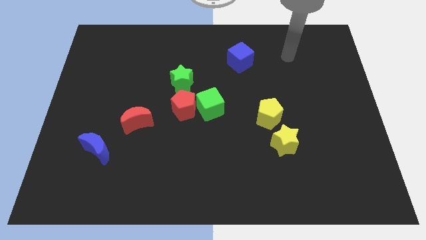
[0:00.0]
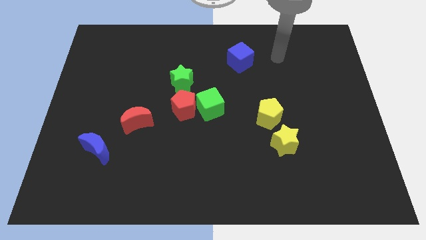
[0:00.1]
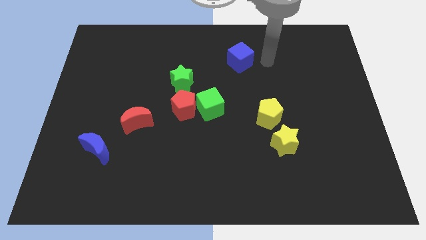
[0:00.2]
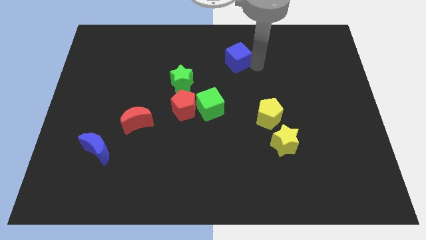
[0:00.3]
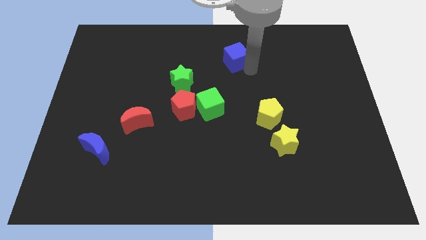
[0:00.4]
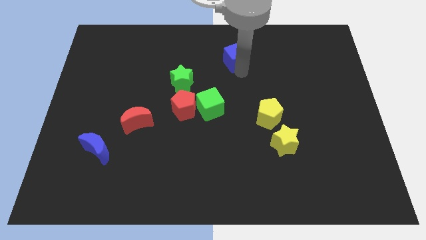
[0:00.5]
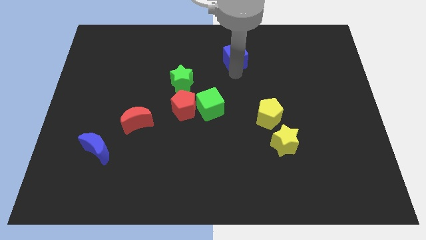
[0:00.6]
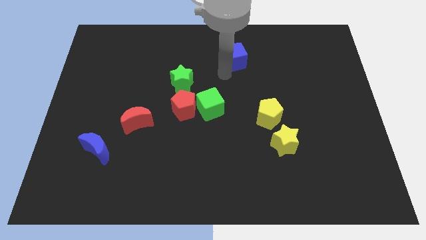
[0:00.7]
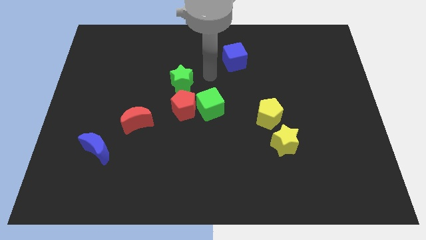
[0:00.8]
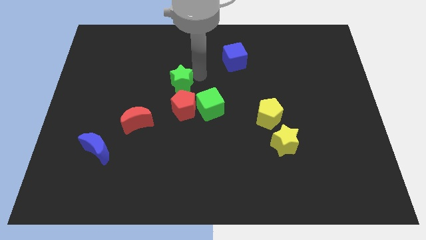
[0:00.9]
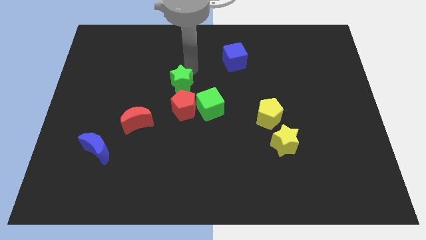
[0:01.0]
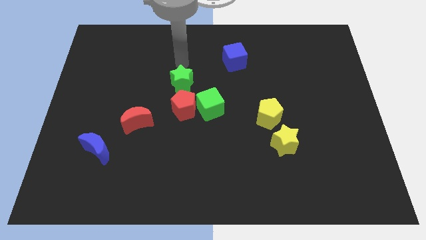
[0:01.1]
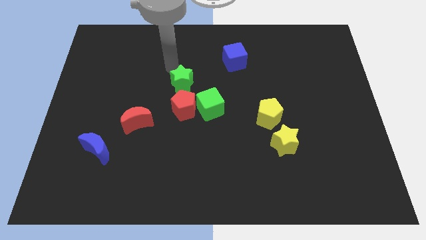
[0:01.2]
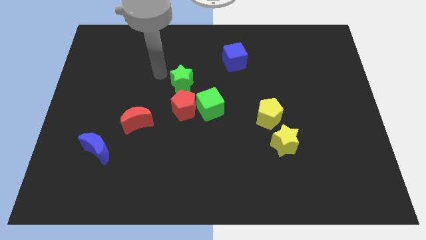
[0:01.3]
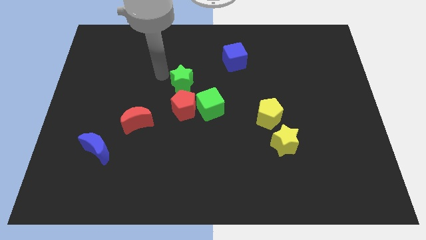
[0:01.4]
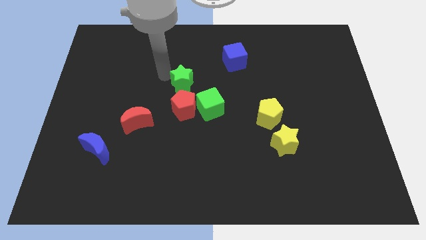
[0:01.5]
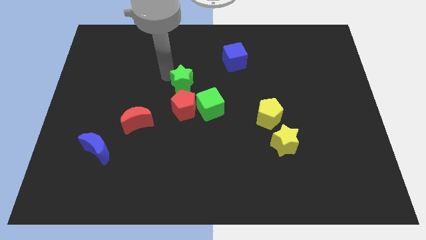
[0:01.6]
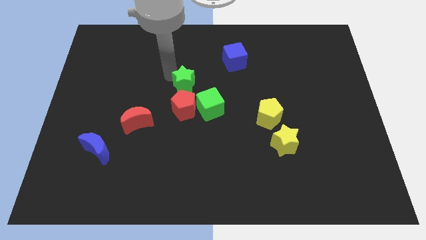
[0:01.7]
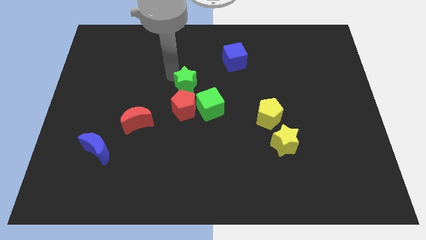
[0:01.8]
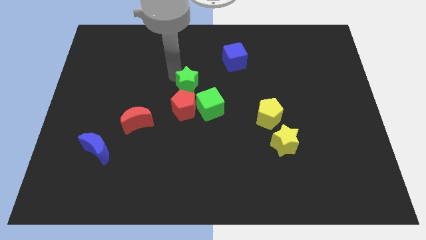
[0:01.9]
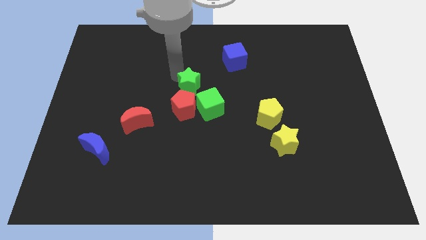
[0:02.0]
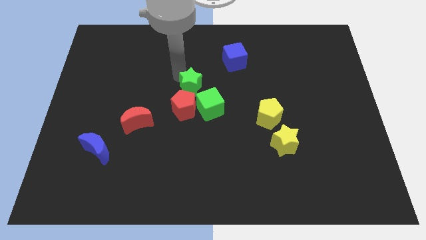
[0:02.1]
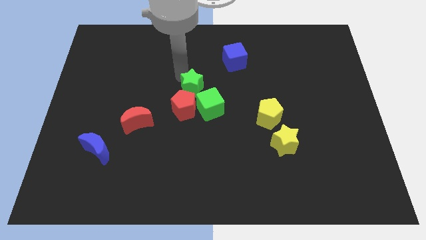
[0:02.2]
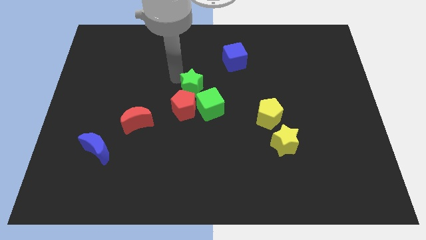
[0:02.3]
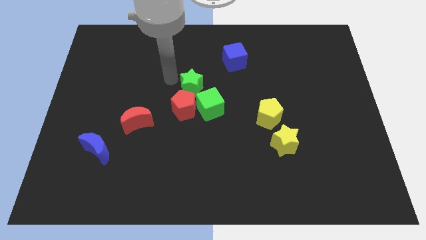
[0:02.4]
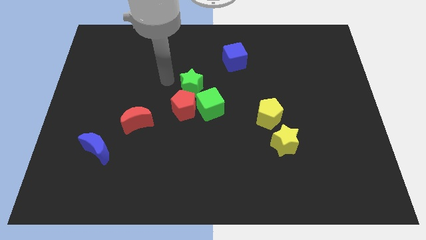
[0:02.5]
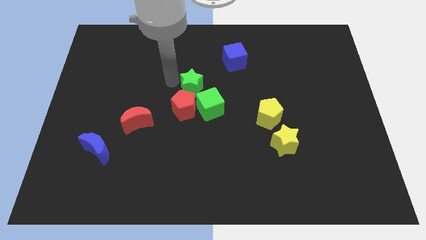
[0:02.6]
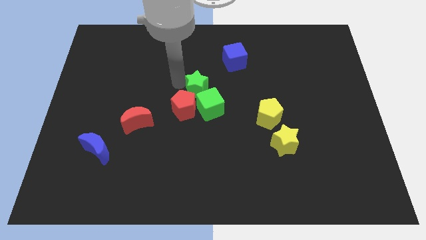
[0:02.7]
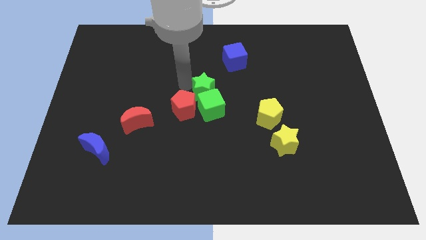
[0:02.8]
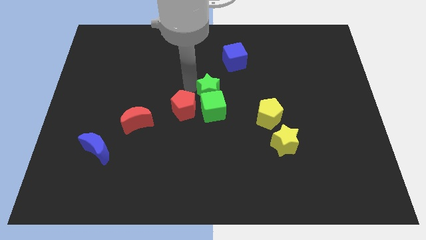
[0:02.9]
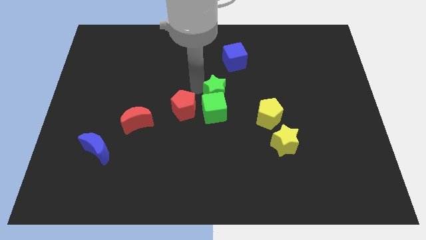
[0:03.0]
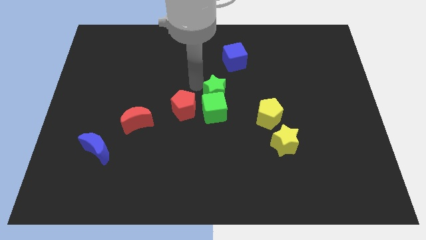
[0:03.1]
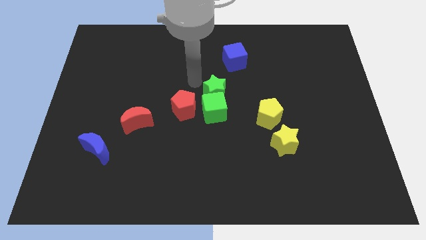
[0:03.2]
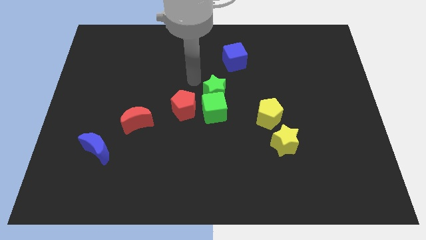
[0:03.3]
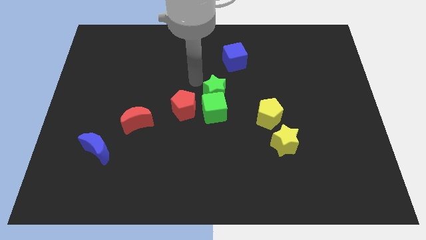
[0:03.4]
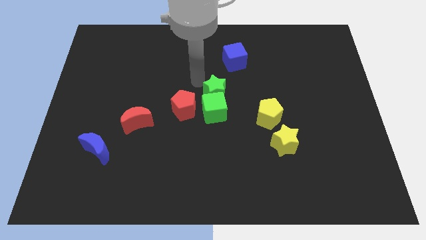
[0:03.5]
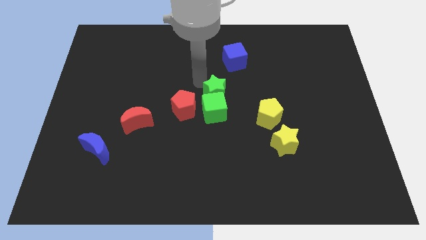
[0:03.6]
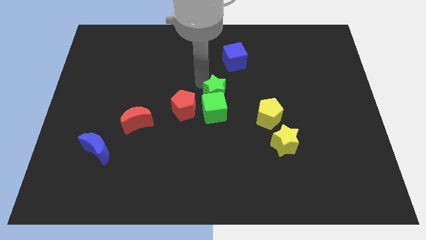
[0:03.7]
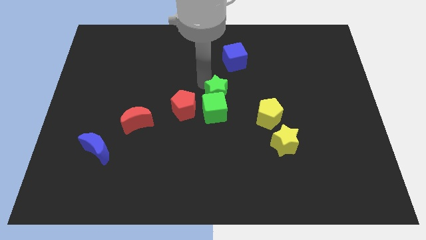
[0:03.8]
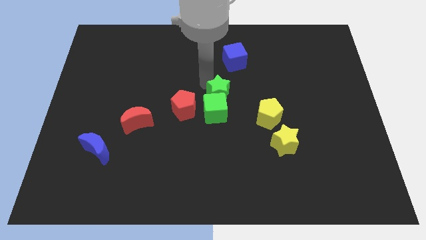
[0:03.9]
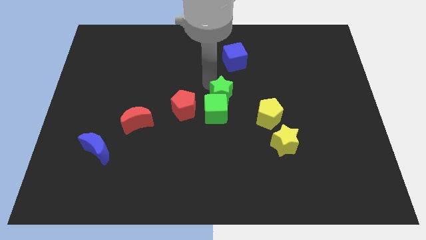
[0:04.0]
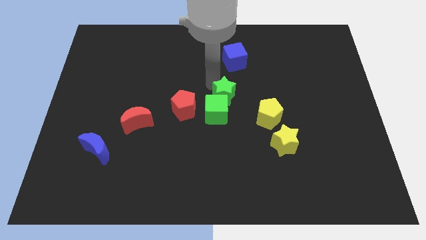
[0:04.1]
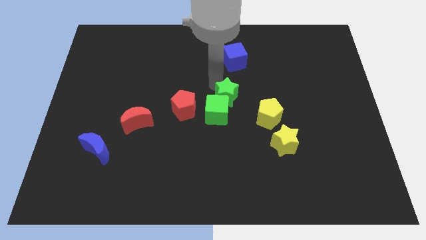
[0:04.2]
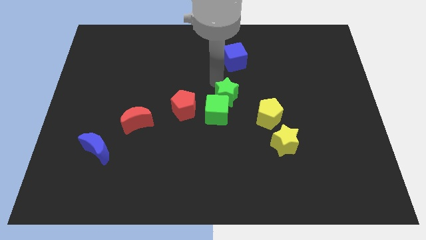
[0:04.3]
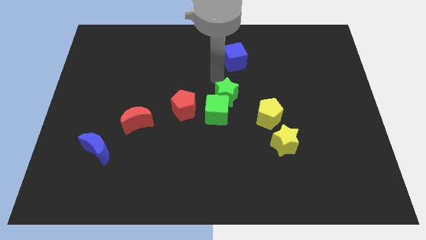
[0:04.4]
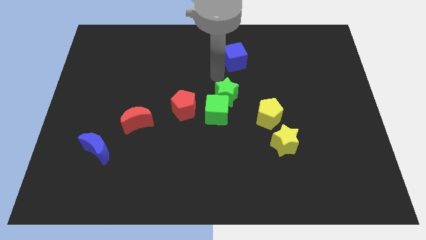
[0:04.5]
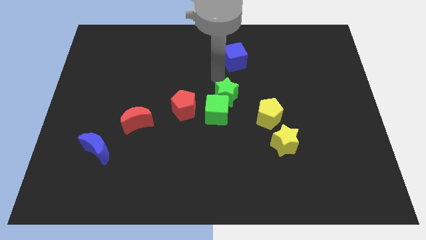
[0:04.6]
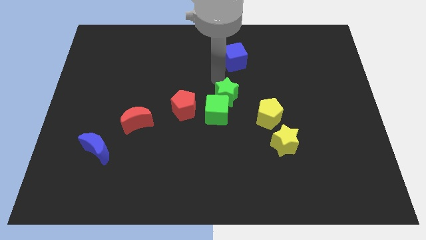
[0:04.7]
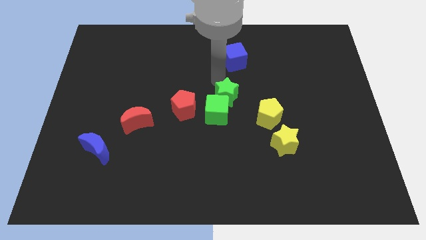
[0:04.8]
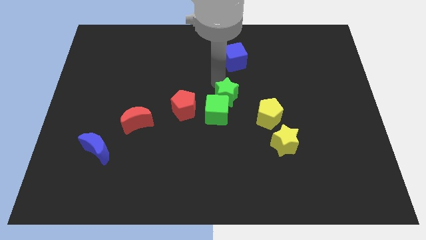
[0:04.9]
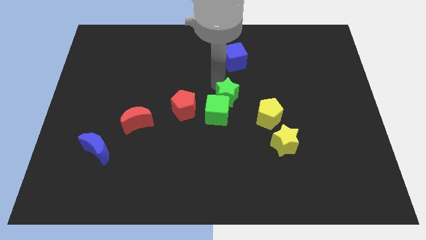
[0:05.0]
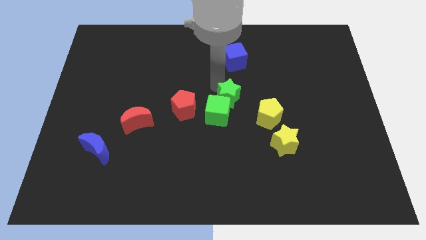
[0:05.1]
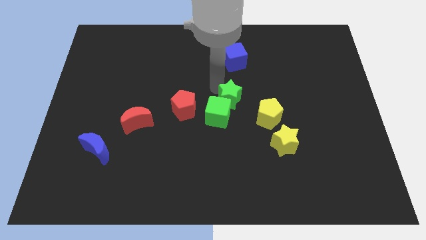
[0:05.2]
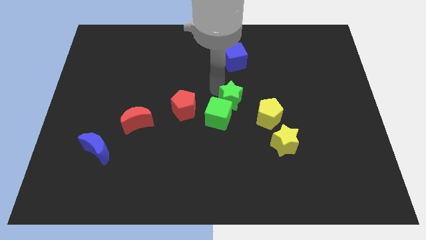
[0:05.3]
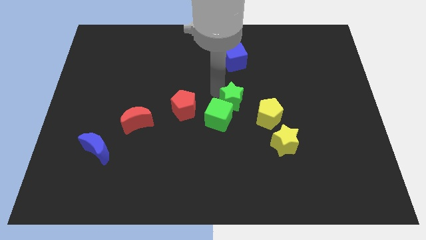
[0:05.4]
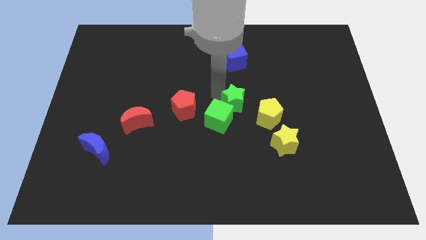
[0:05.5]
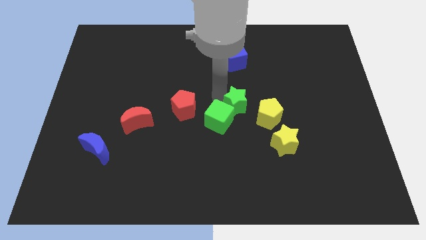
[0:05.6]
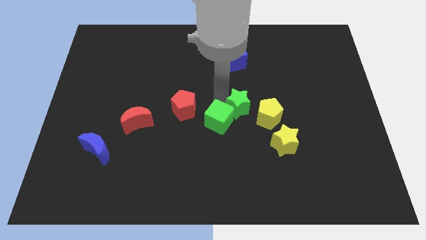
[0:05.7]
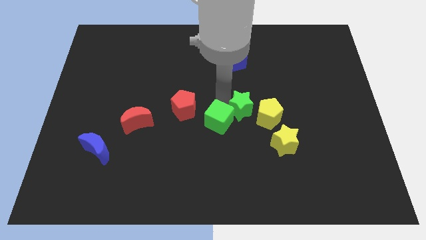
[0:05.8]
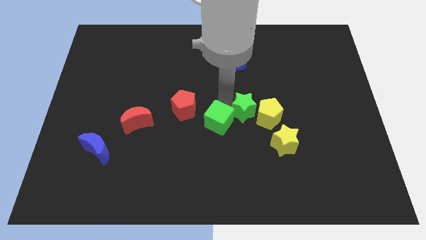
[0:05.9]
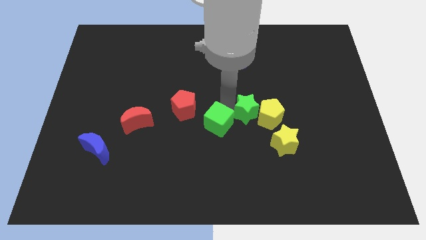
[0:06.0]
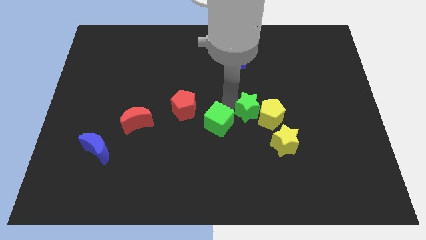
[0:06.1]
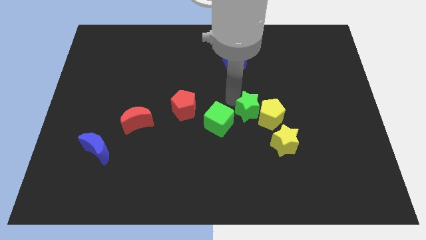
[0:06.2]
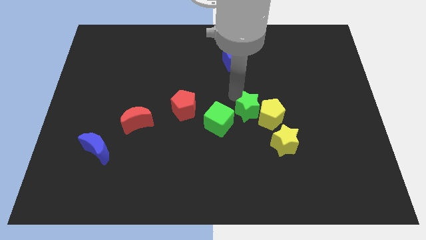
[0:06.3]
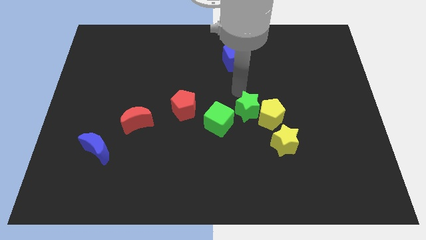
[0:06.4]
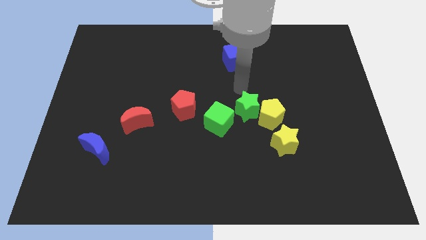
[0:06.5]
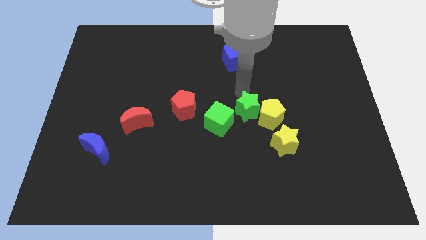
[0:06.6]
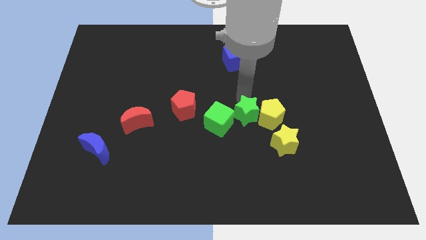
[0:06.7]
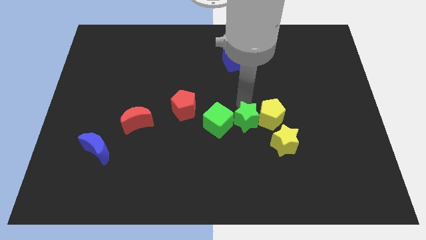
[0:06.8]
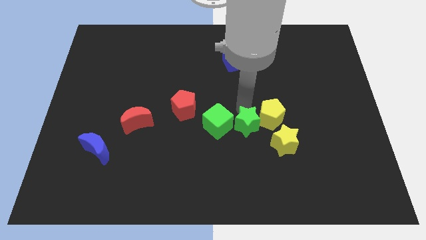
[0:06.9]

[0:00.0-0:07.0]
slide the green star downwards and to the right diagonally

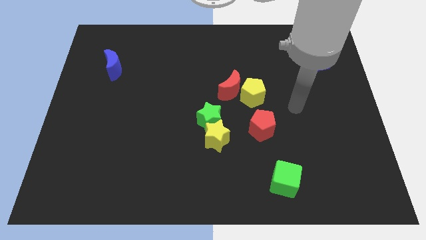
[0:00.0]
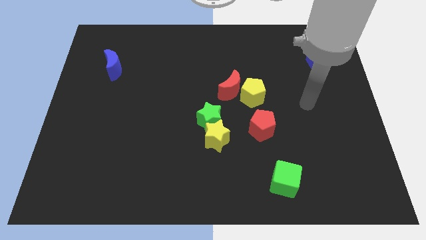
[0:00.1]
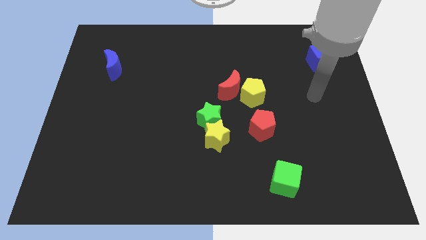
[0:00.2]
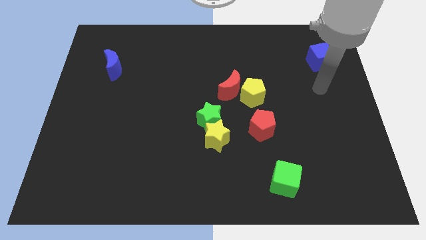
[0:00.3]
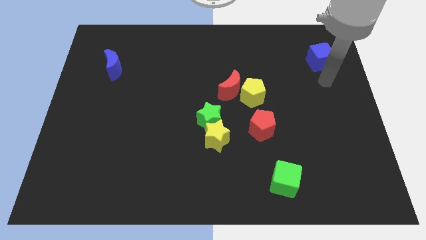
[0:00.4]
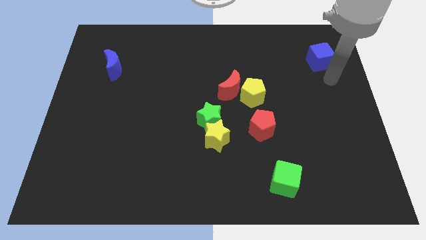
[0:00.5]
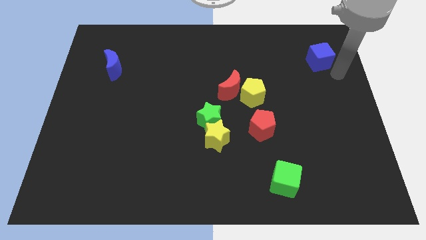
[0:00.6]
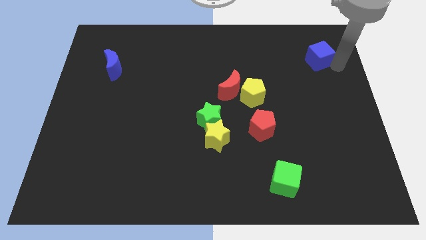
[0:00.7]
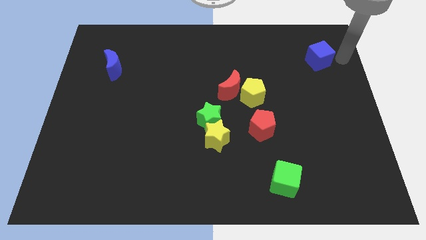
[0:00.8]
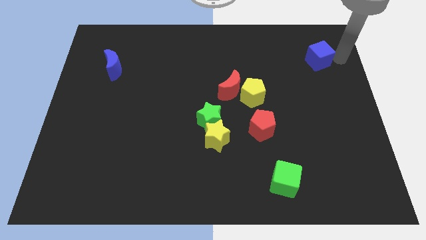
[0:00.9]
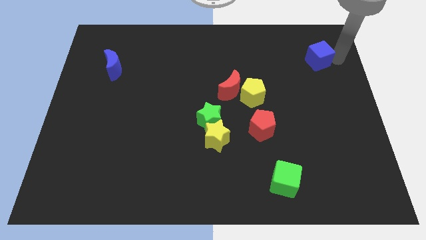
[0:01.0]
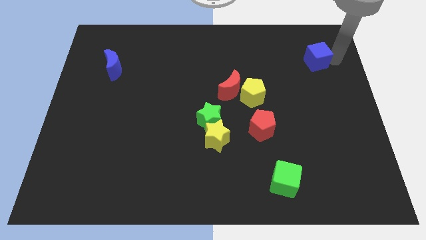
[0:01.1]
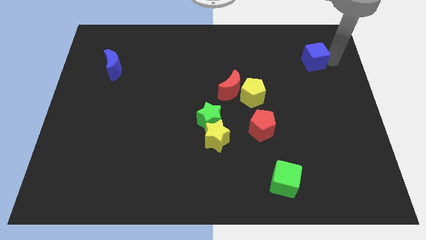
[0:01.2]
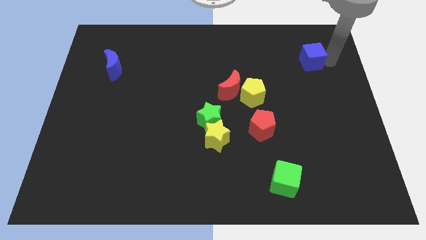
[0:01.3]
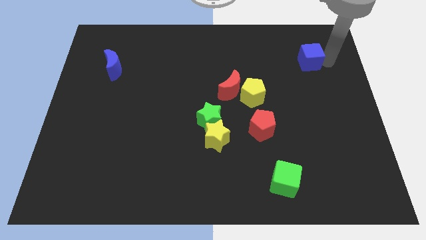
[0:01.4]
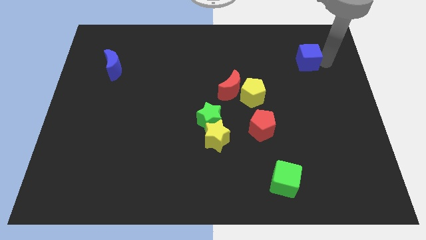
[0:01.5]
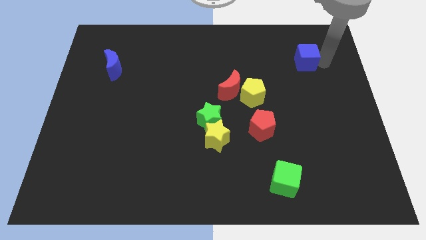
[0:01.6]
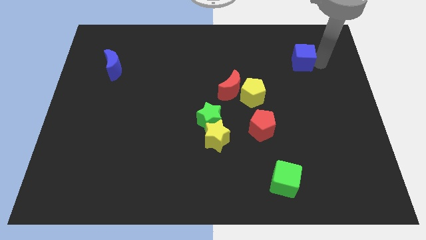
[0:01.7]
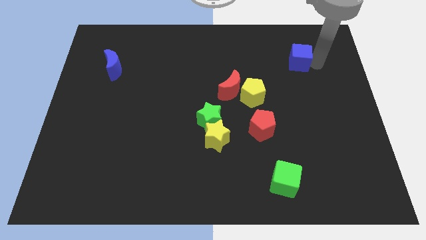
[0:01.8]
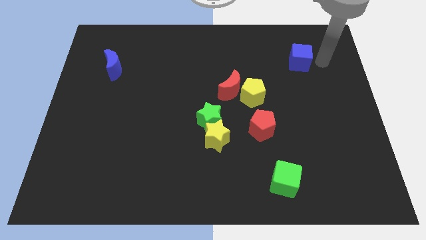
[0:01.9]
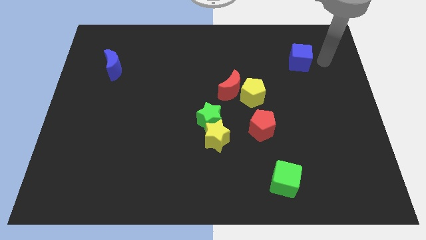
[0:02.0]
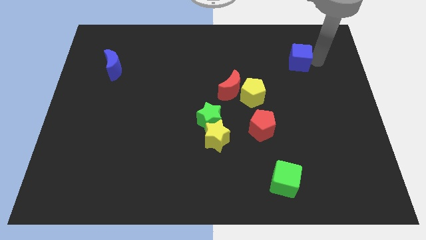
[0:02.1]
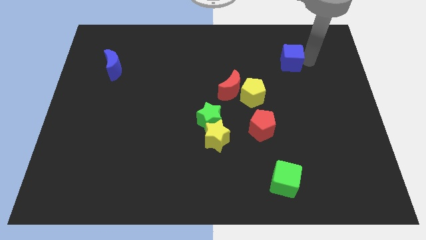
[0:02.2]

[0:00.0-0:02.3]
slightly move the blue cube left
